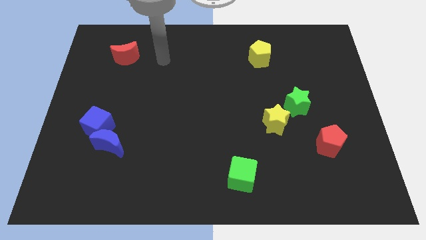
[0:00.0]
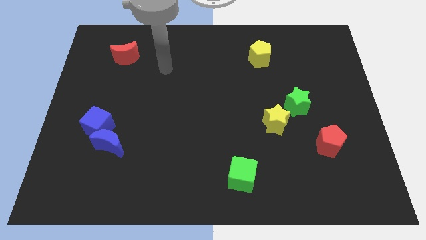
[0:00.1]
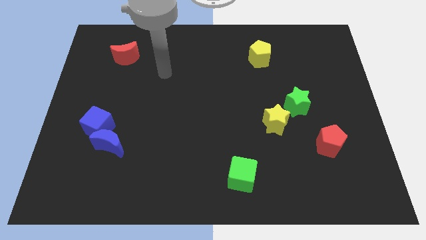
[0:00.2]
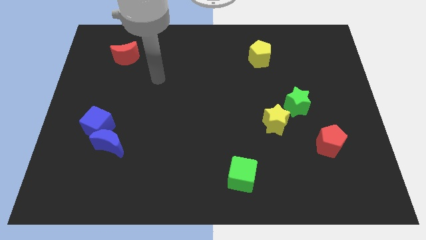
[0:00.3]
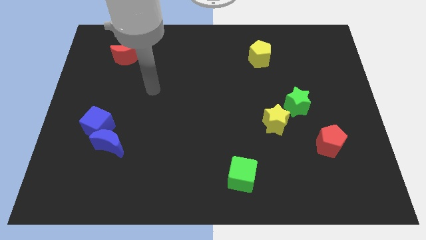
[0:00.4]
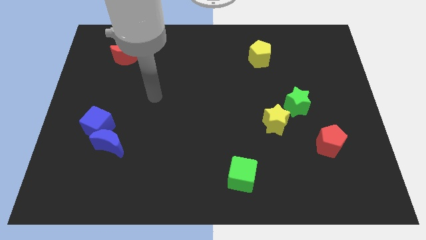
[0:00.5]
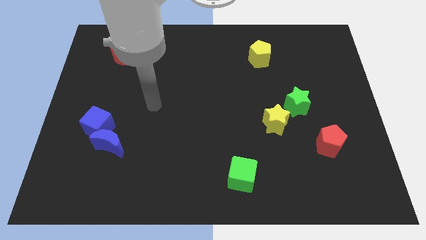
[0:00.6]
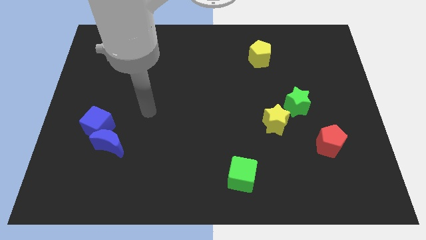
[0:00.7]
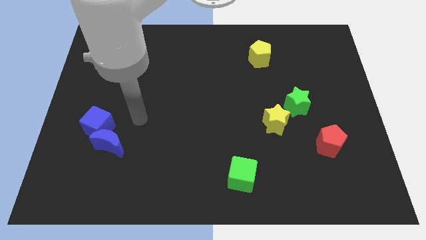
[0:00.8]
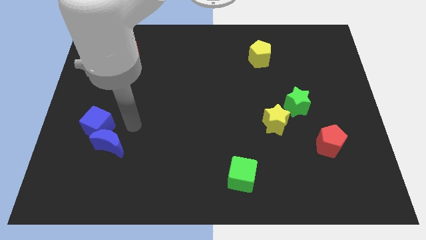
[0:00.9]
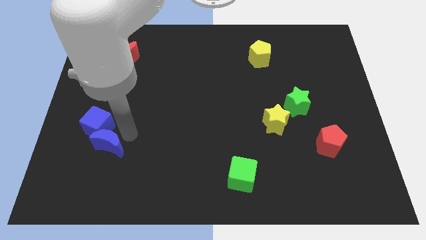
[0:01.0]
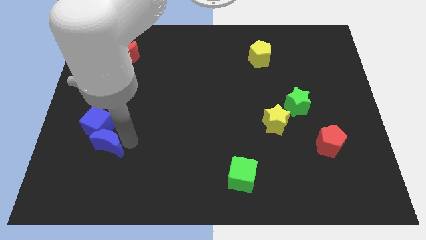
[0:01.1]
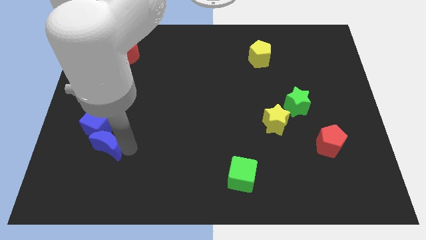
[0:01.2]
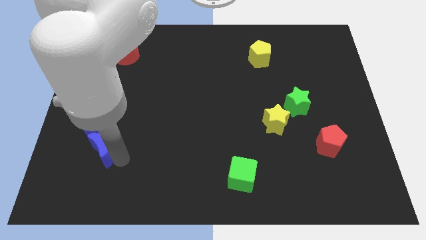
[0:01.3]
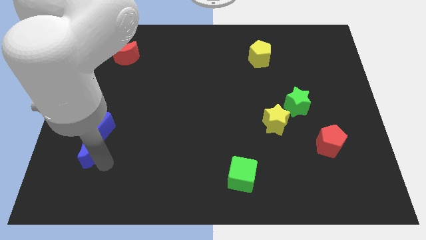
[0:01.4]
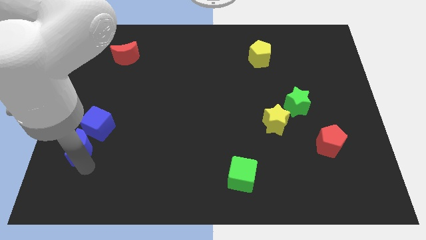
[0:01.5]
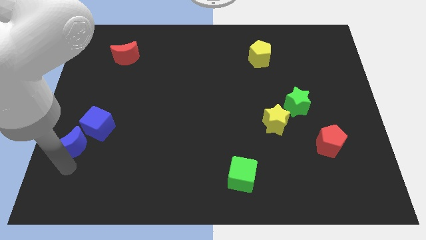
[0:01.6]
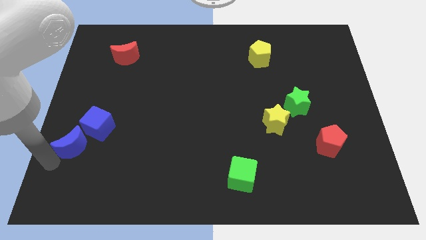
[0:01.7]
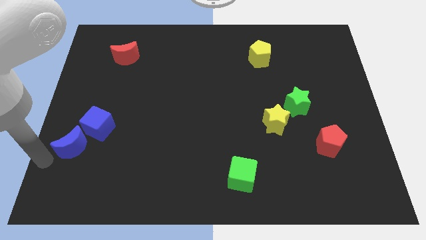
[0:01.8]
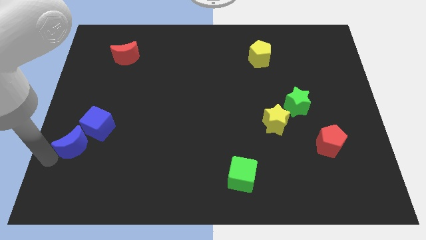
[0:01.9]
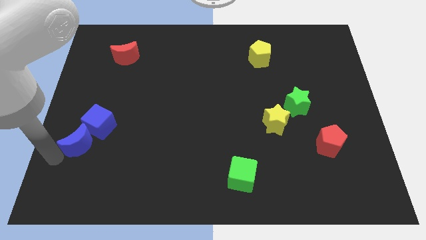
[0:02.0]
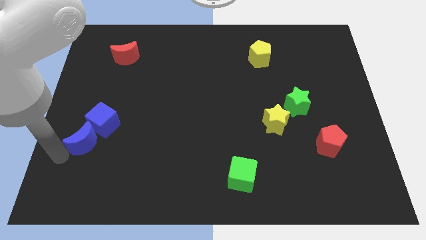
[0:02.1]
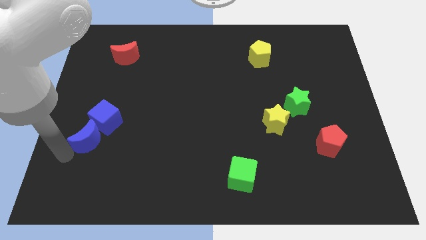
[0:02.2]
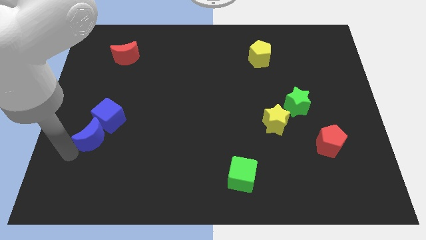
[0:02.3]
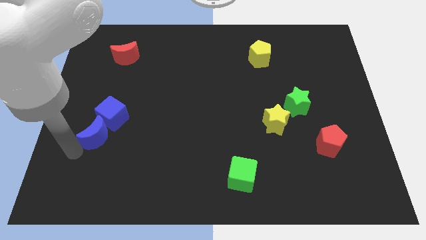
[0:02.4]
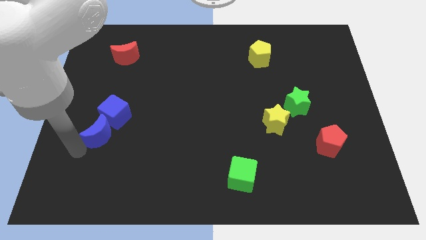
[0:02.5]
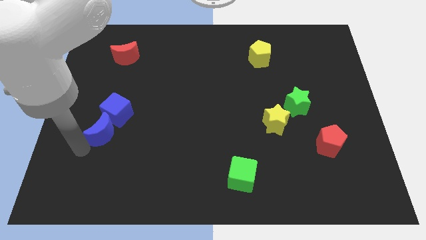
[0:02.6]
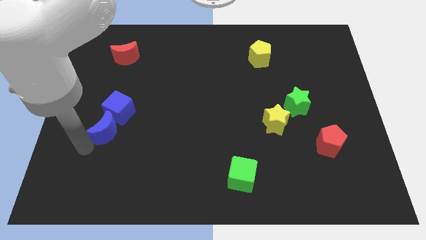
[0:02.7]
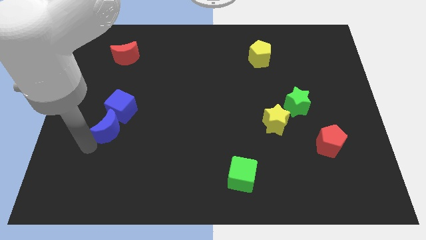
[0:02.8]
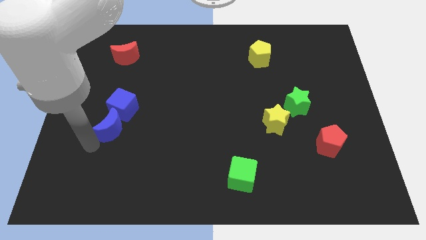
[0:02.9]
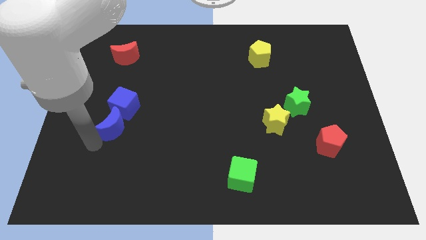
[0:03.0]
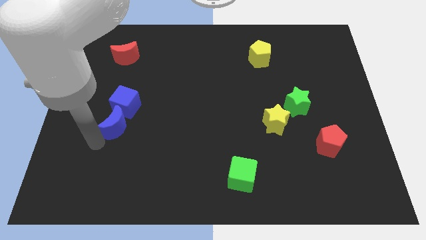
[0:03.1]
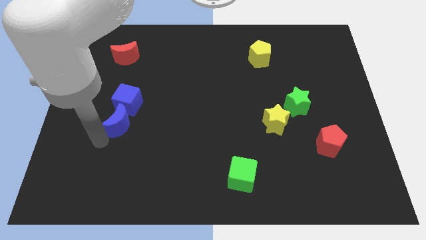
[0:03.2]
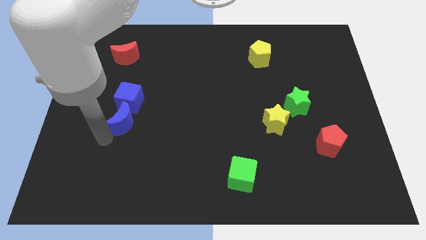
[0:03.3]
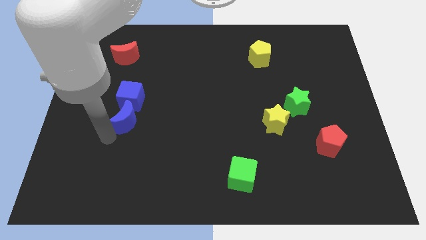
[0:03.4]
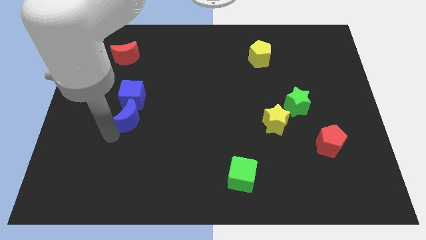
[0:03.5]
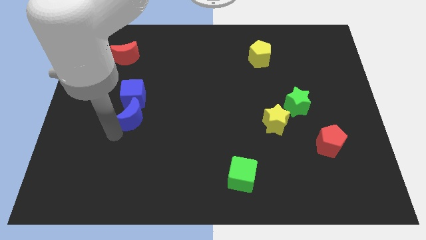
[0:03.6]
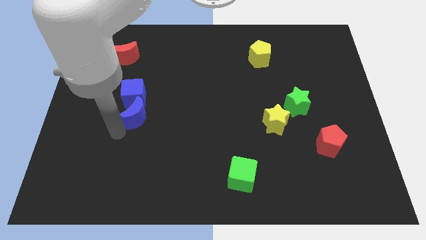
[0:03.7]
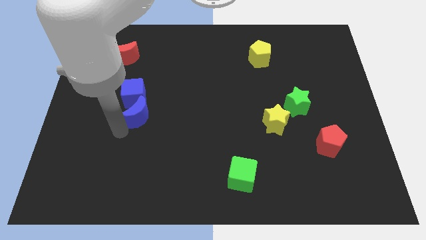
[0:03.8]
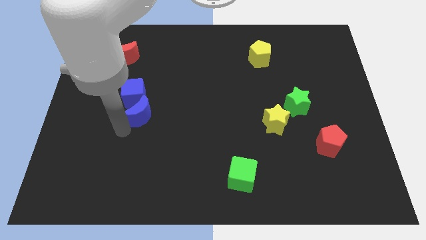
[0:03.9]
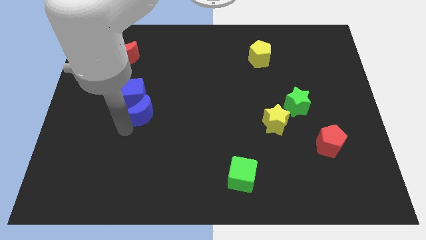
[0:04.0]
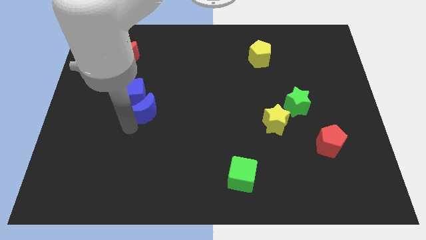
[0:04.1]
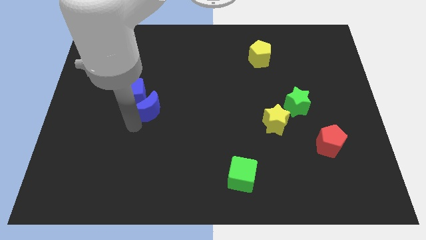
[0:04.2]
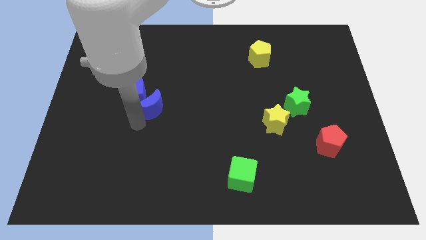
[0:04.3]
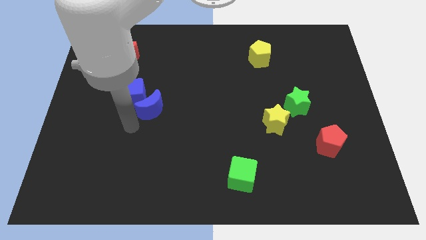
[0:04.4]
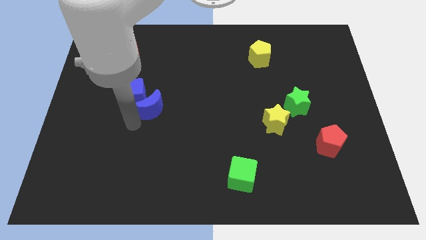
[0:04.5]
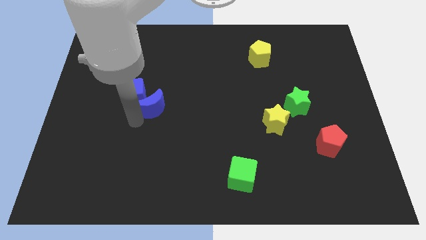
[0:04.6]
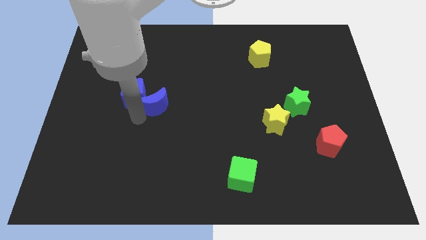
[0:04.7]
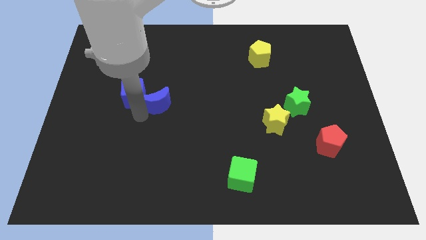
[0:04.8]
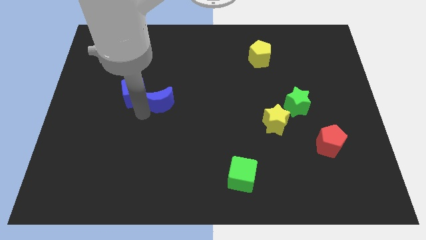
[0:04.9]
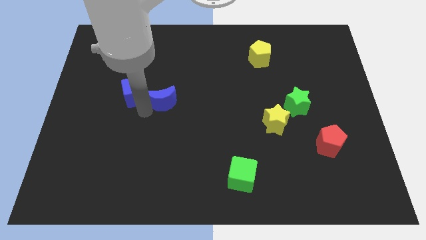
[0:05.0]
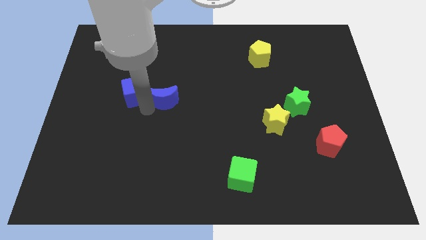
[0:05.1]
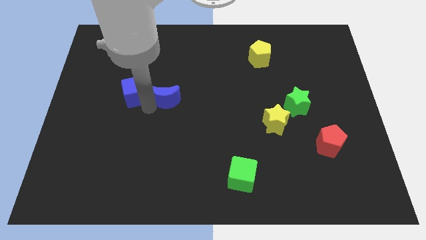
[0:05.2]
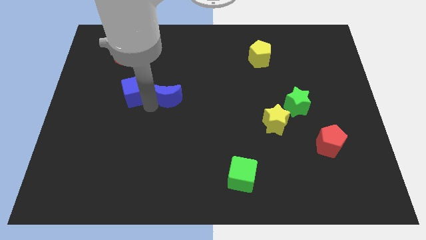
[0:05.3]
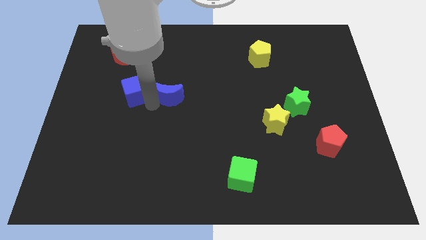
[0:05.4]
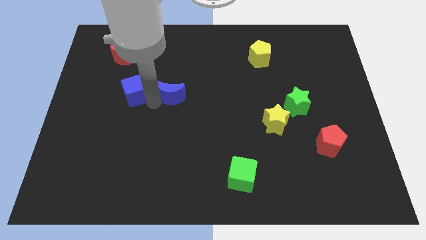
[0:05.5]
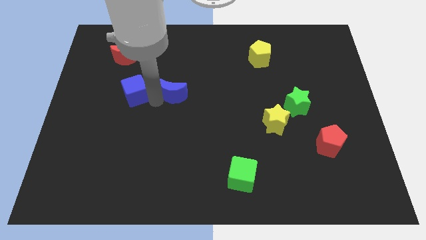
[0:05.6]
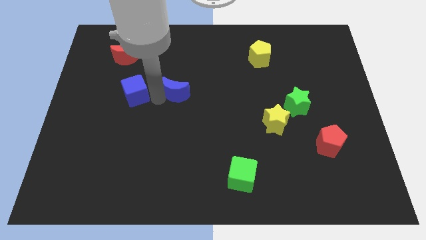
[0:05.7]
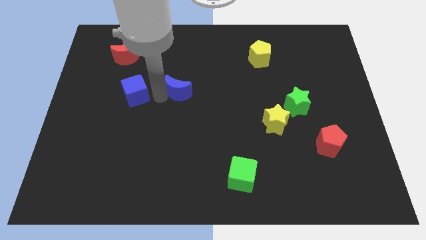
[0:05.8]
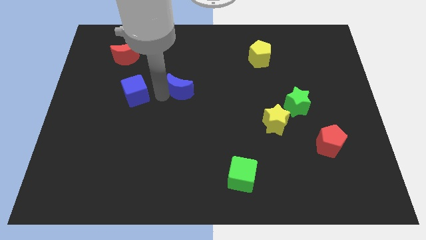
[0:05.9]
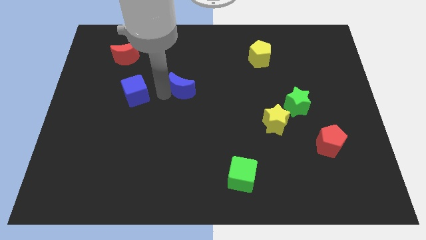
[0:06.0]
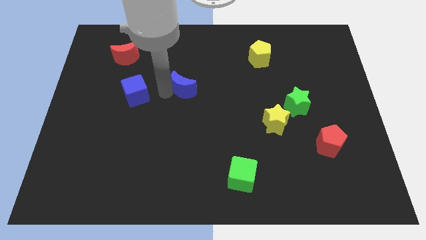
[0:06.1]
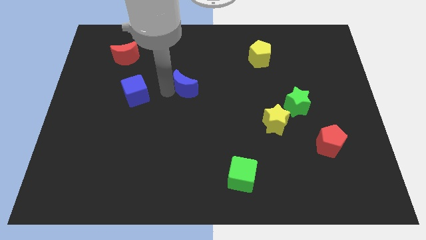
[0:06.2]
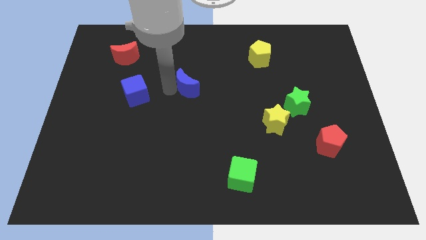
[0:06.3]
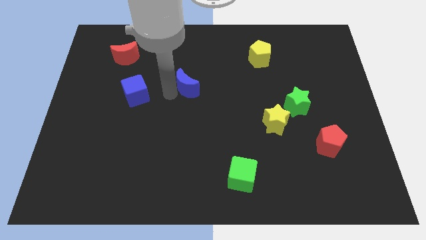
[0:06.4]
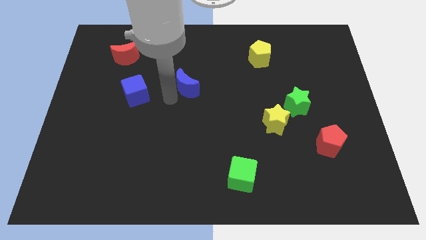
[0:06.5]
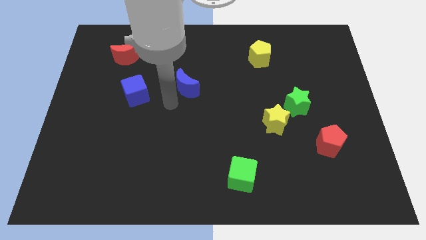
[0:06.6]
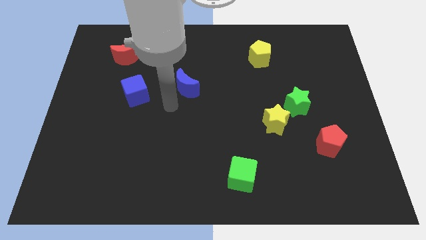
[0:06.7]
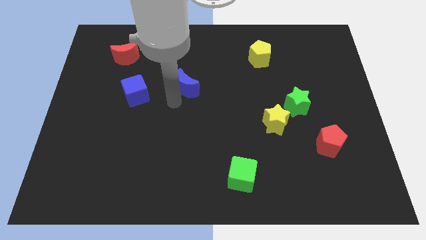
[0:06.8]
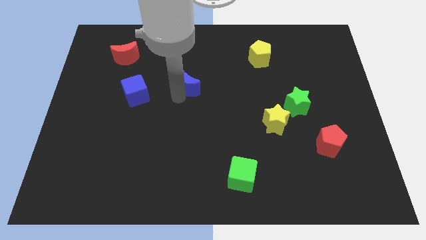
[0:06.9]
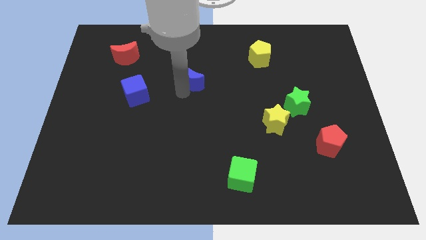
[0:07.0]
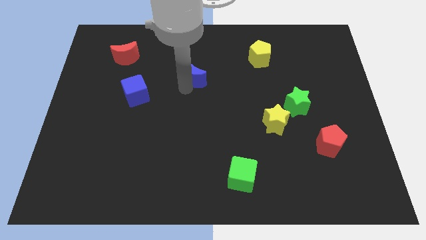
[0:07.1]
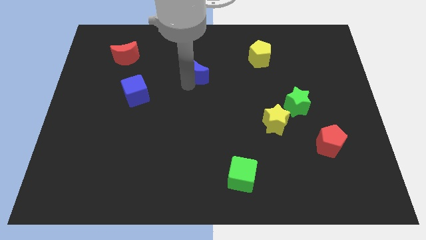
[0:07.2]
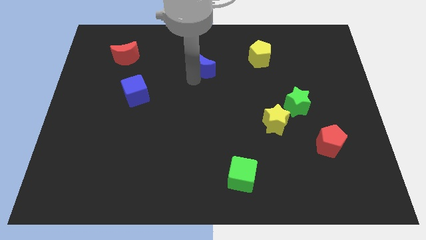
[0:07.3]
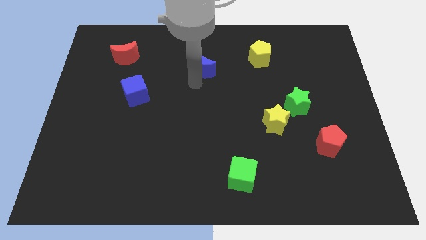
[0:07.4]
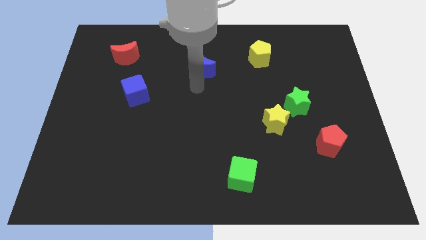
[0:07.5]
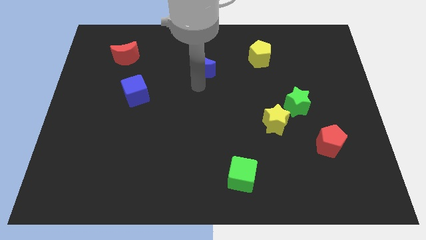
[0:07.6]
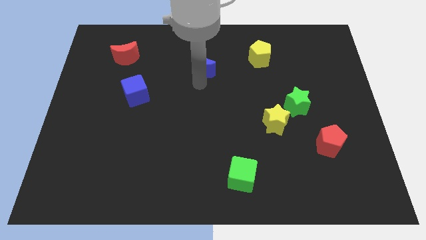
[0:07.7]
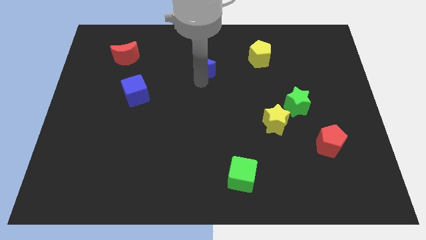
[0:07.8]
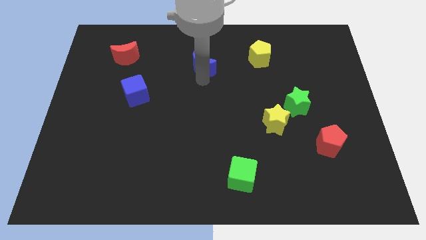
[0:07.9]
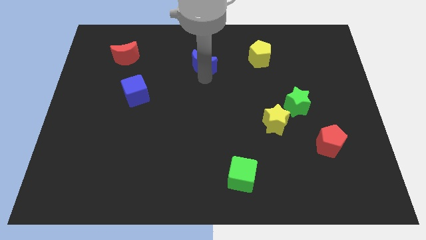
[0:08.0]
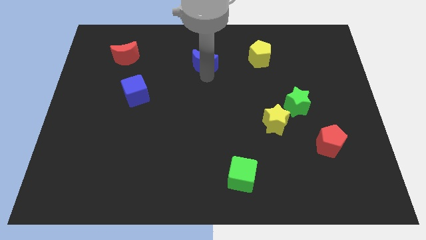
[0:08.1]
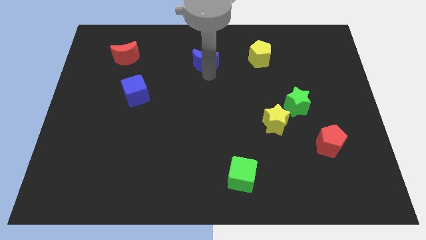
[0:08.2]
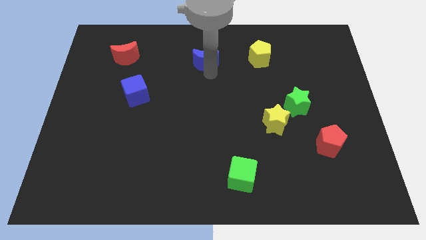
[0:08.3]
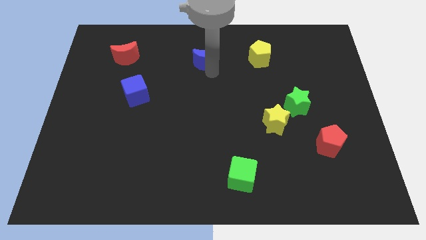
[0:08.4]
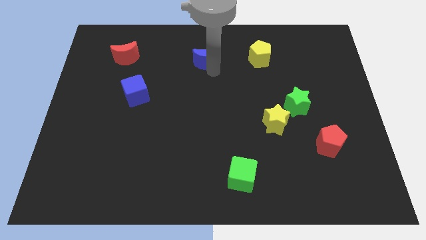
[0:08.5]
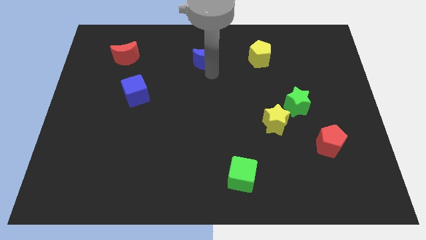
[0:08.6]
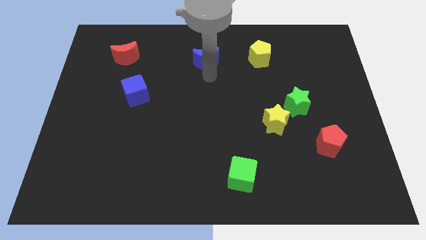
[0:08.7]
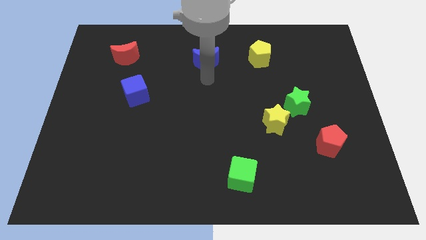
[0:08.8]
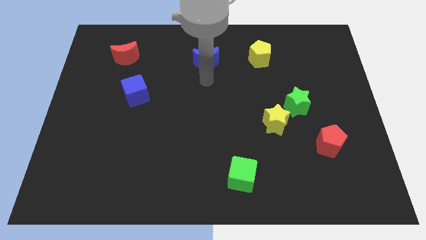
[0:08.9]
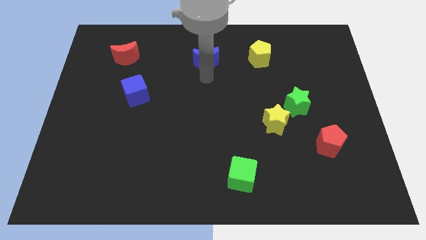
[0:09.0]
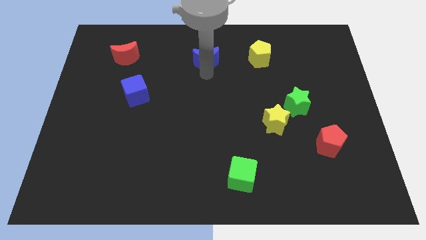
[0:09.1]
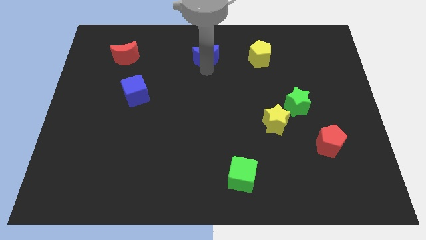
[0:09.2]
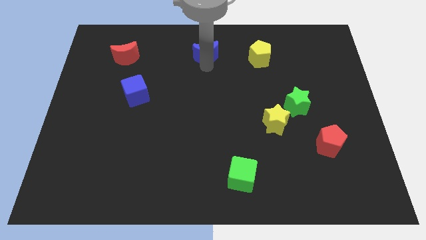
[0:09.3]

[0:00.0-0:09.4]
put the blue moon to the top
